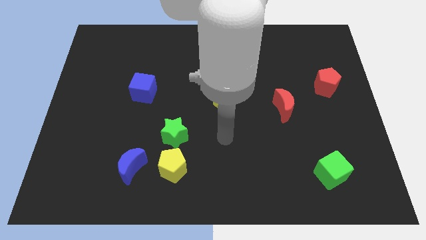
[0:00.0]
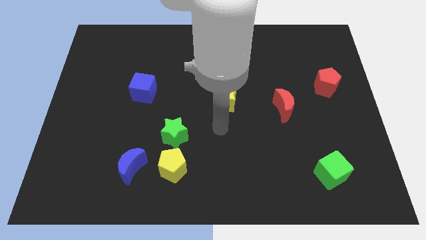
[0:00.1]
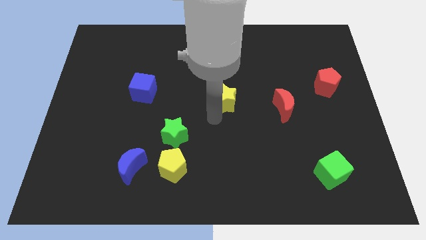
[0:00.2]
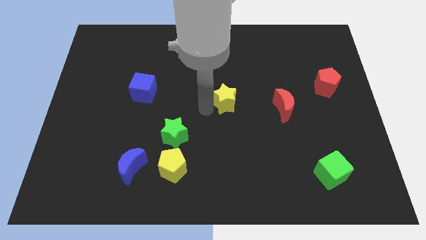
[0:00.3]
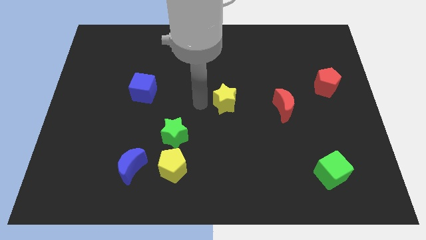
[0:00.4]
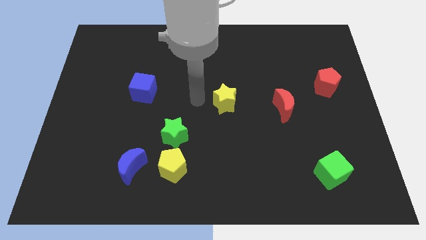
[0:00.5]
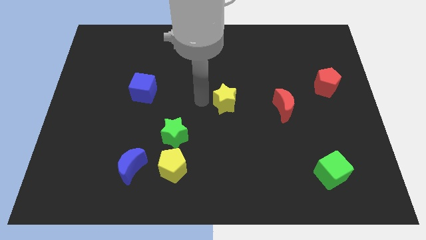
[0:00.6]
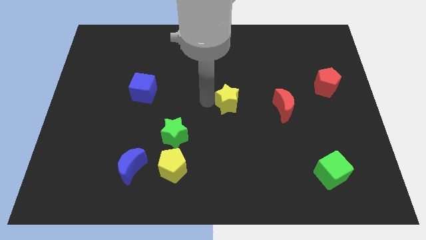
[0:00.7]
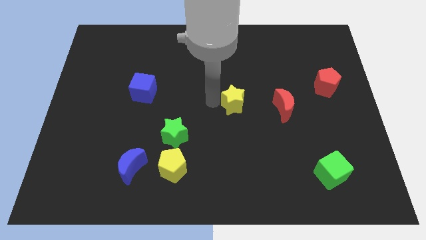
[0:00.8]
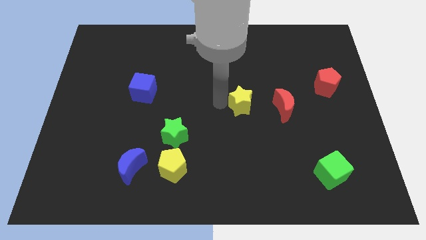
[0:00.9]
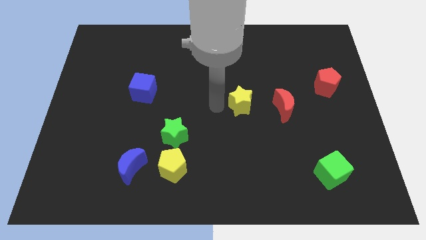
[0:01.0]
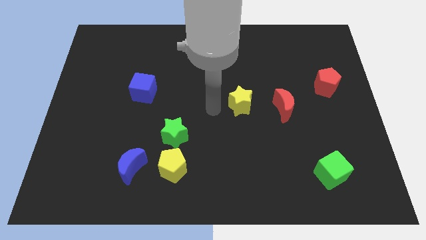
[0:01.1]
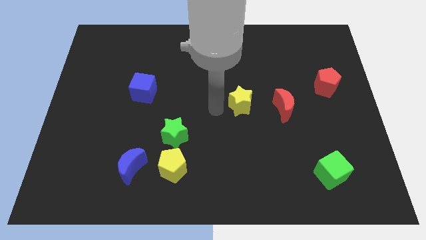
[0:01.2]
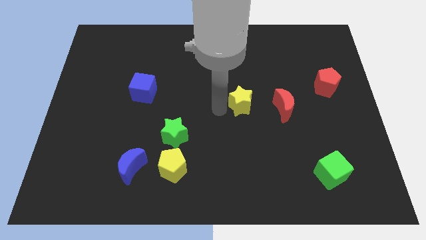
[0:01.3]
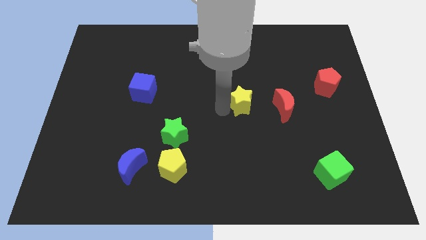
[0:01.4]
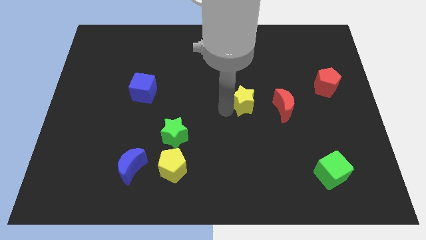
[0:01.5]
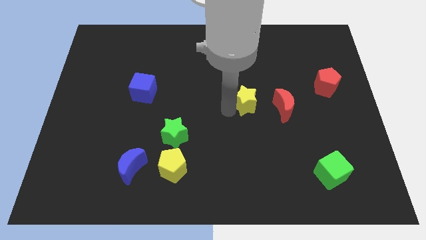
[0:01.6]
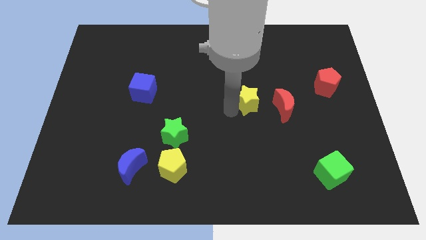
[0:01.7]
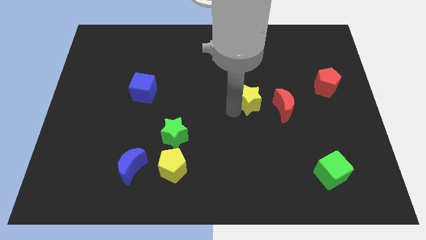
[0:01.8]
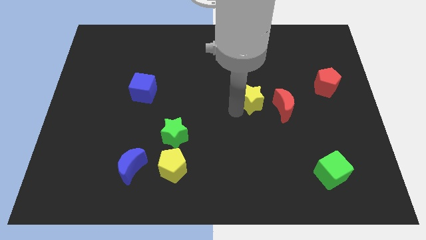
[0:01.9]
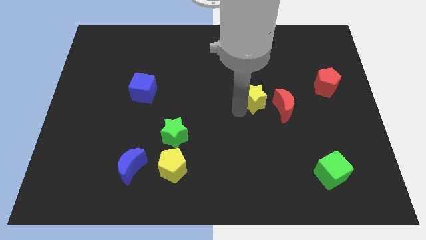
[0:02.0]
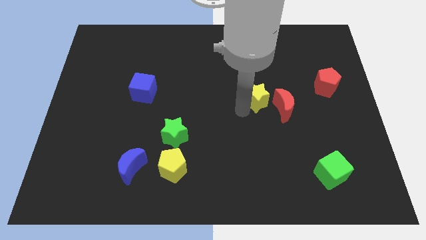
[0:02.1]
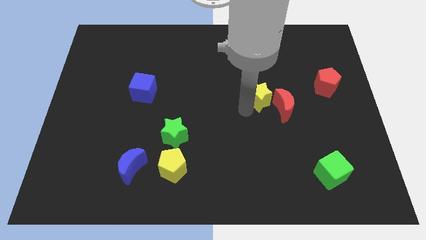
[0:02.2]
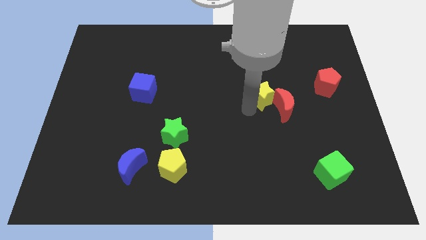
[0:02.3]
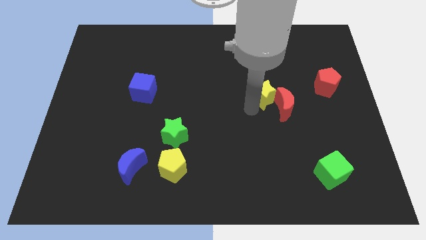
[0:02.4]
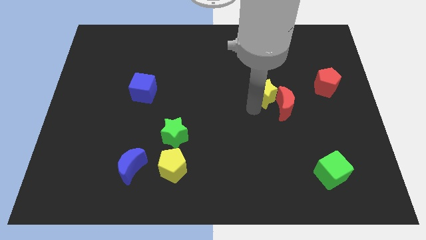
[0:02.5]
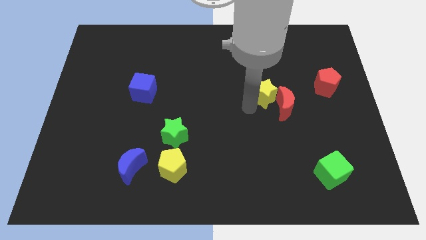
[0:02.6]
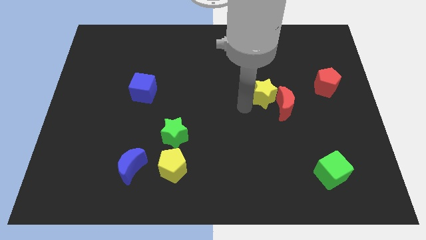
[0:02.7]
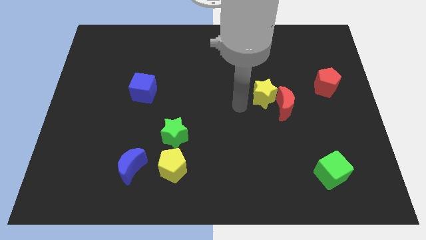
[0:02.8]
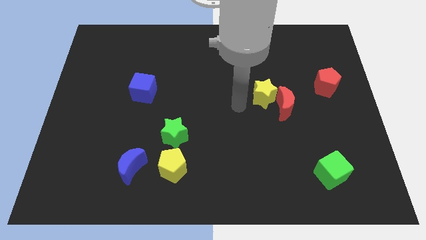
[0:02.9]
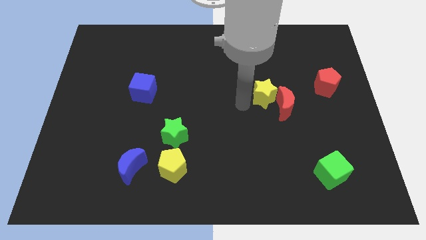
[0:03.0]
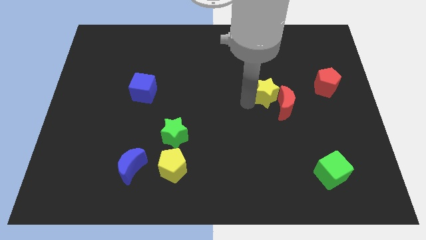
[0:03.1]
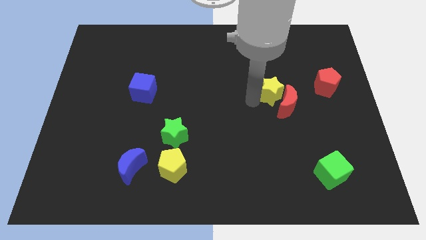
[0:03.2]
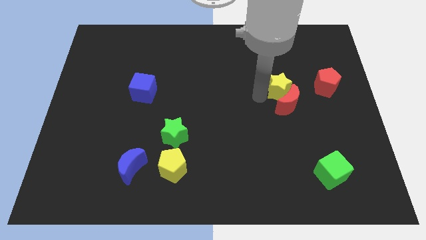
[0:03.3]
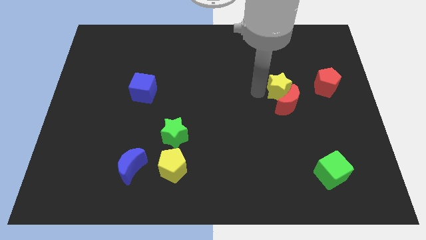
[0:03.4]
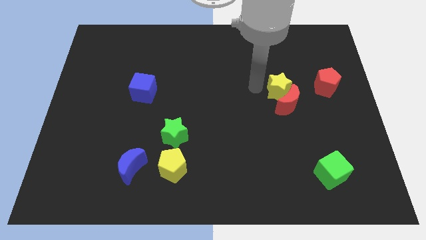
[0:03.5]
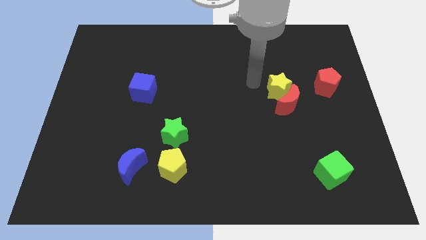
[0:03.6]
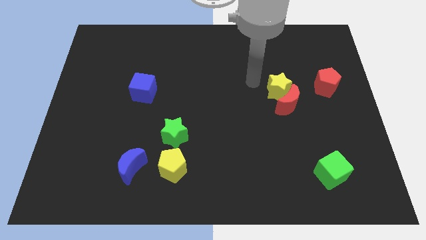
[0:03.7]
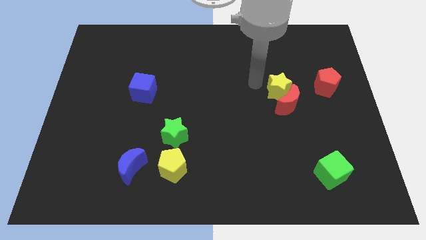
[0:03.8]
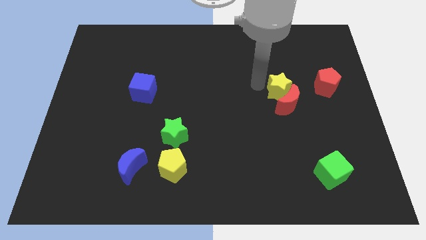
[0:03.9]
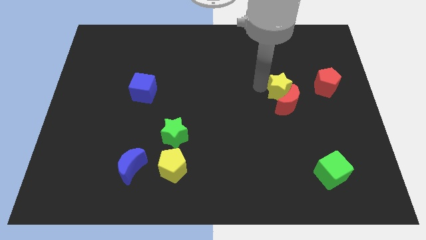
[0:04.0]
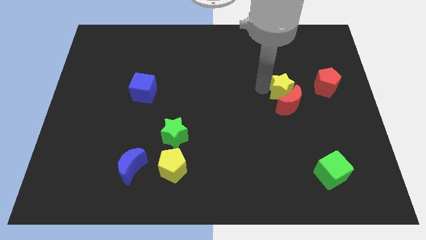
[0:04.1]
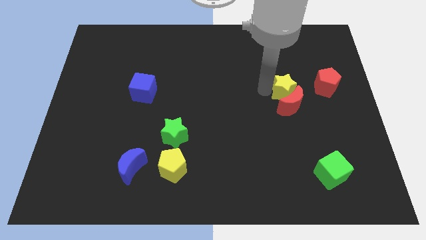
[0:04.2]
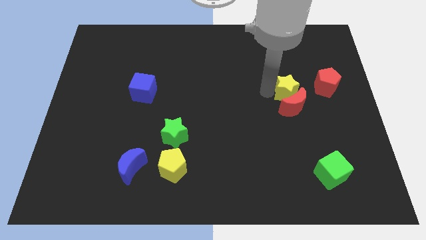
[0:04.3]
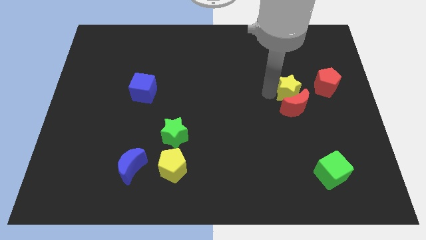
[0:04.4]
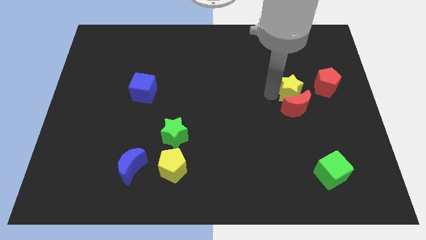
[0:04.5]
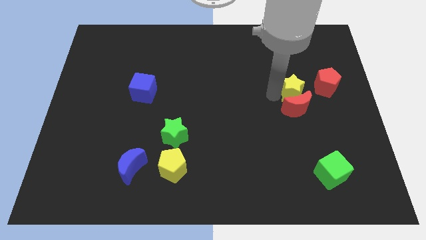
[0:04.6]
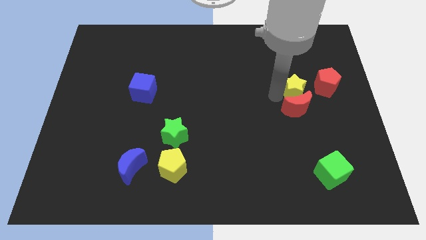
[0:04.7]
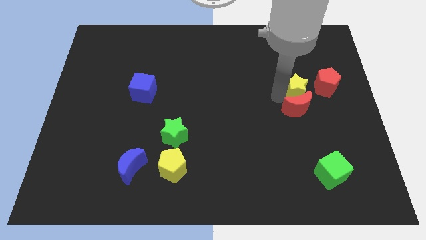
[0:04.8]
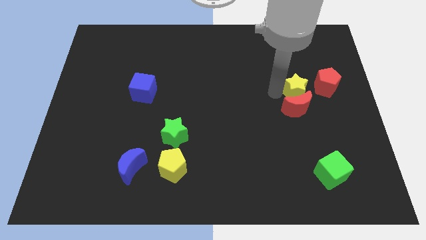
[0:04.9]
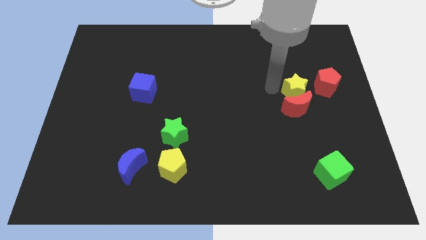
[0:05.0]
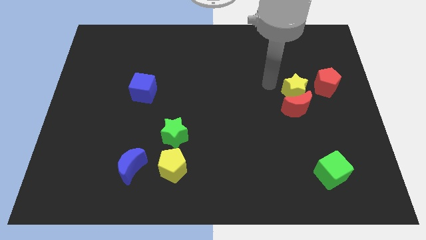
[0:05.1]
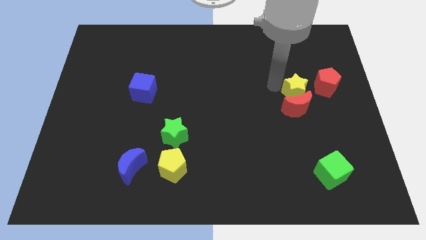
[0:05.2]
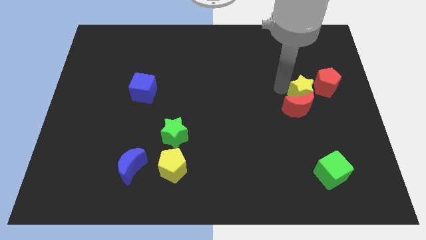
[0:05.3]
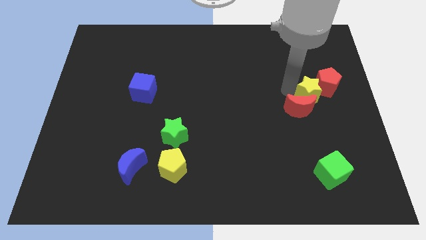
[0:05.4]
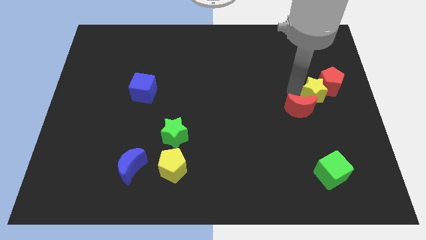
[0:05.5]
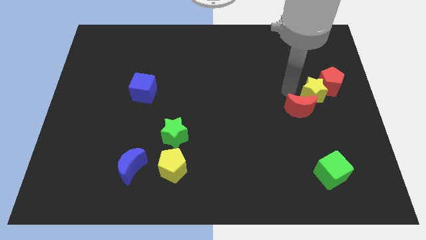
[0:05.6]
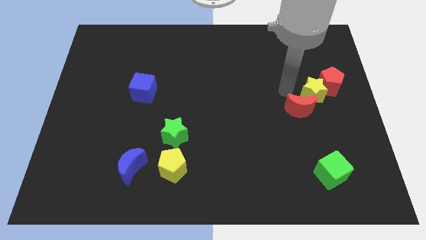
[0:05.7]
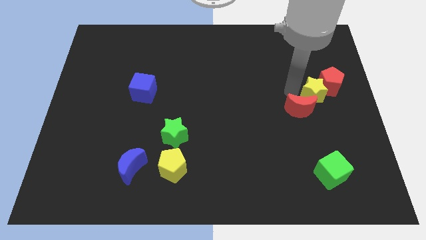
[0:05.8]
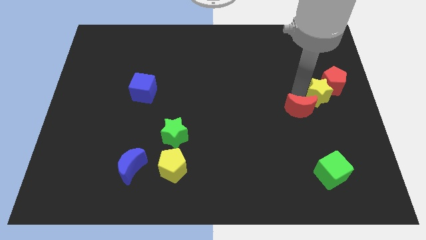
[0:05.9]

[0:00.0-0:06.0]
slide the yellow star to the right side of the board

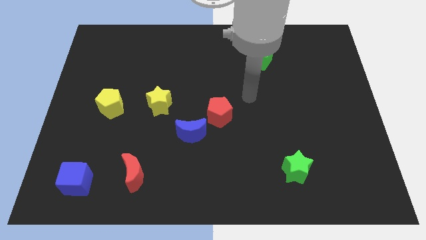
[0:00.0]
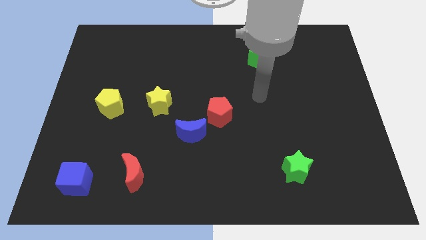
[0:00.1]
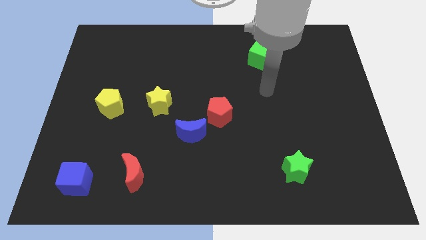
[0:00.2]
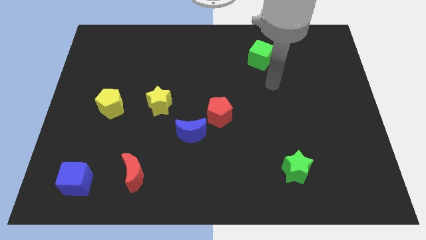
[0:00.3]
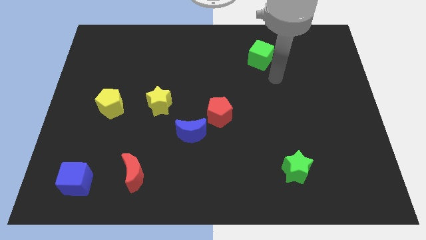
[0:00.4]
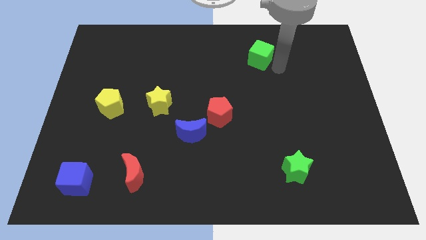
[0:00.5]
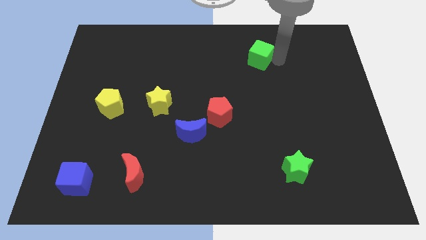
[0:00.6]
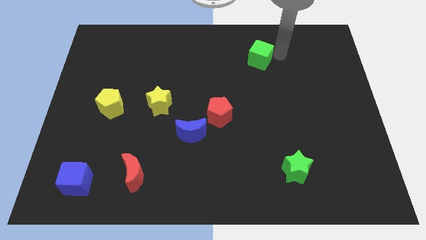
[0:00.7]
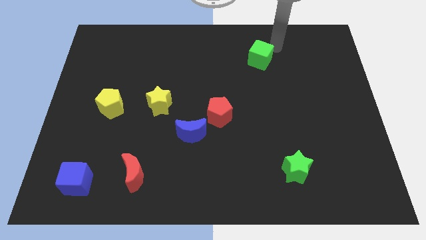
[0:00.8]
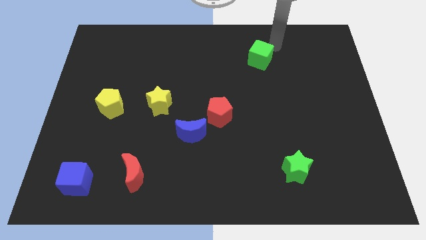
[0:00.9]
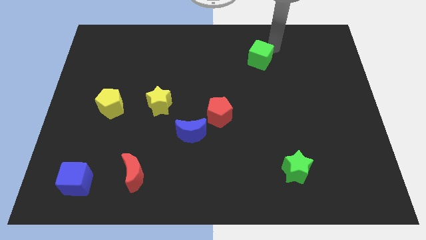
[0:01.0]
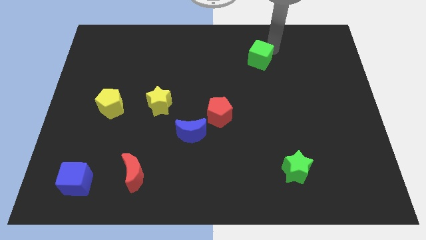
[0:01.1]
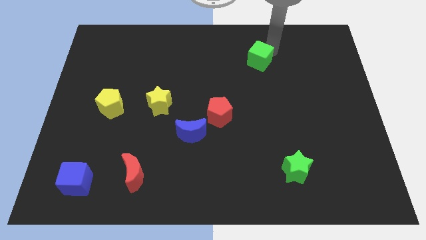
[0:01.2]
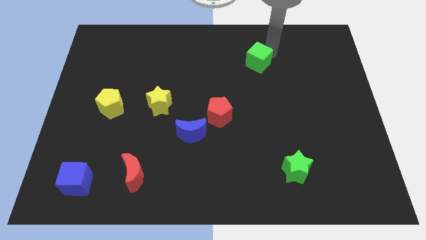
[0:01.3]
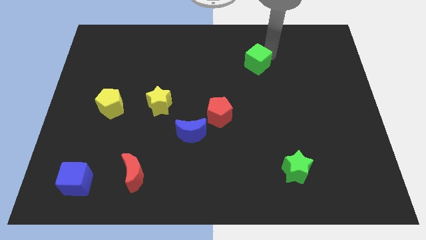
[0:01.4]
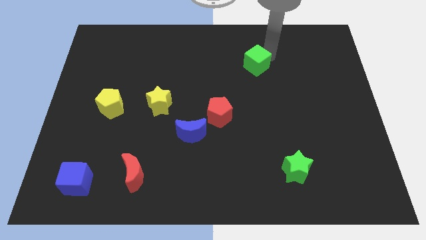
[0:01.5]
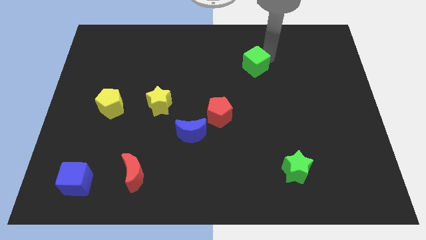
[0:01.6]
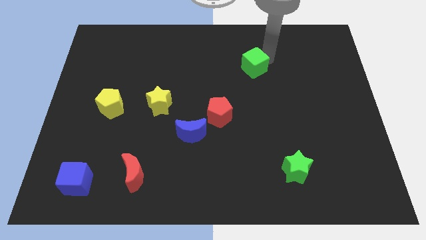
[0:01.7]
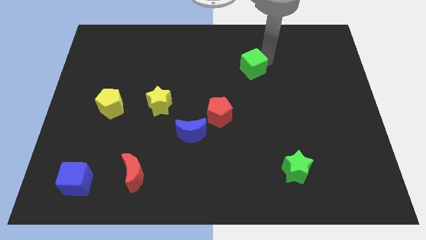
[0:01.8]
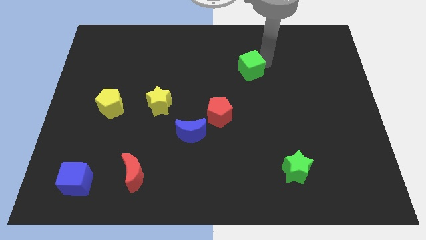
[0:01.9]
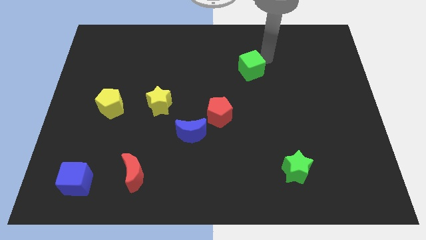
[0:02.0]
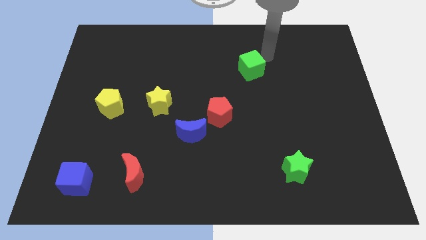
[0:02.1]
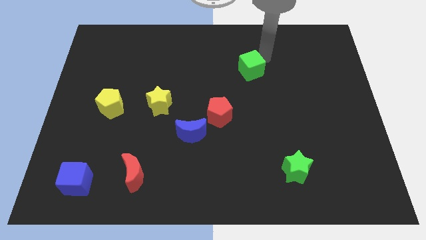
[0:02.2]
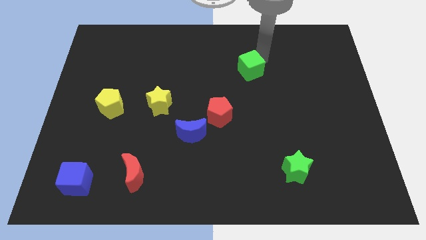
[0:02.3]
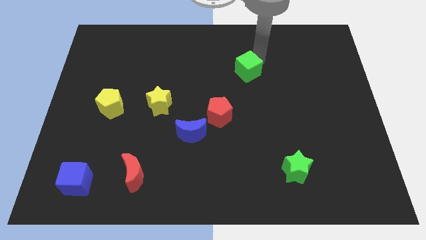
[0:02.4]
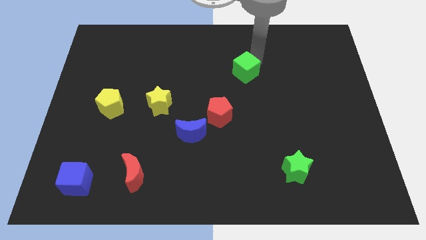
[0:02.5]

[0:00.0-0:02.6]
put the green cube to the center
